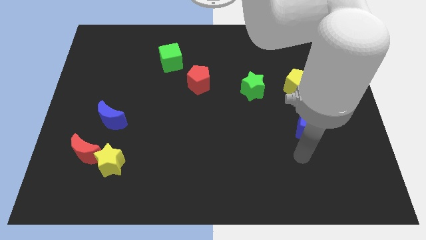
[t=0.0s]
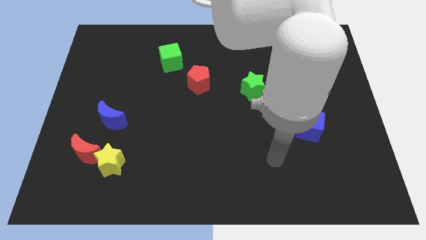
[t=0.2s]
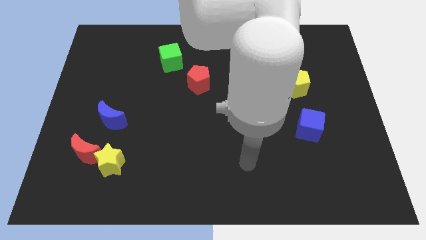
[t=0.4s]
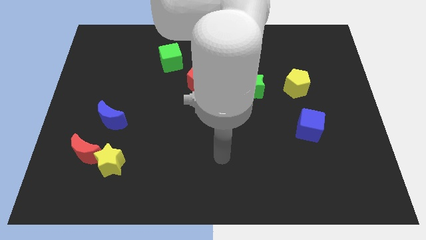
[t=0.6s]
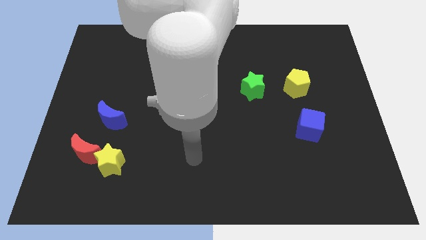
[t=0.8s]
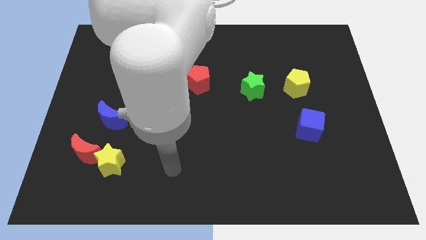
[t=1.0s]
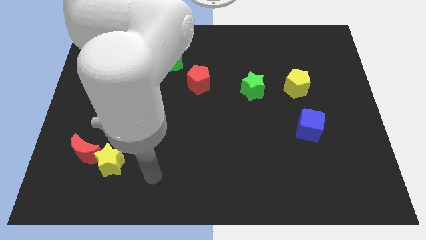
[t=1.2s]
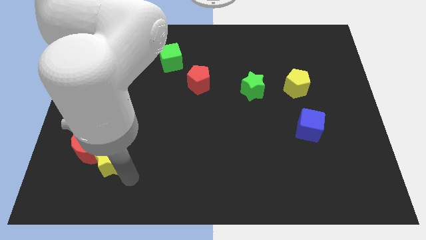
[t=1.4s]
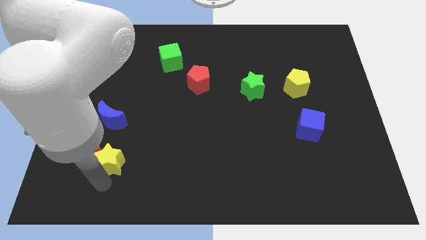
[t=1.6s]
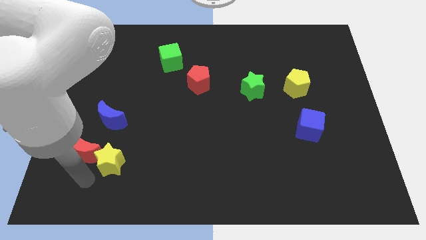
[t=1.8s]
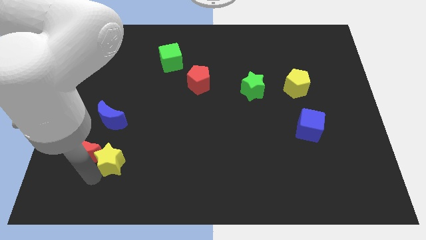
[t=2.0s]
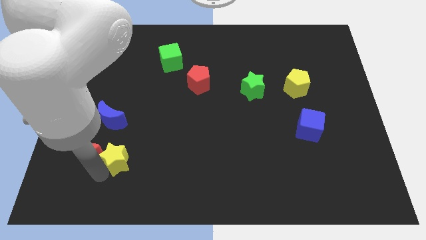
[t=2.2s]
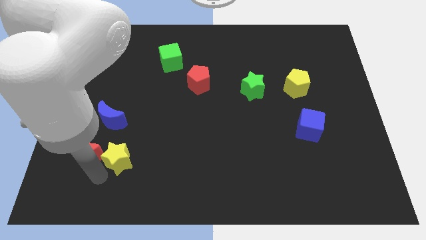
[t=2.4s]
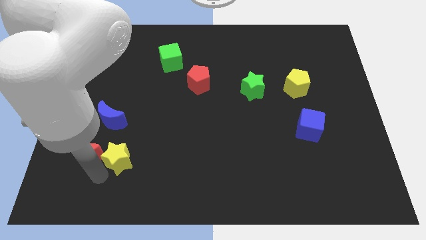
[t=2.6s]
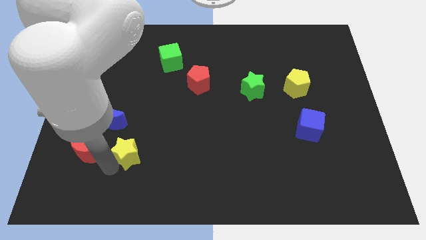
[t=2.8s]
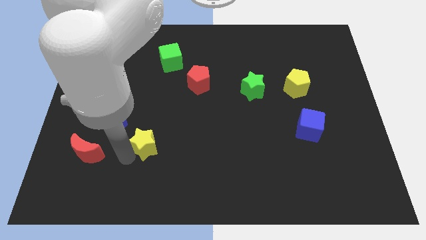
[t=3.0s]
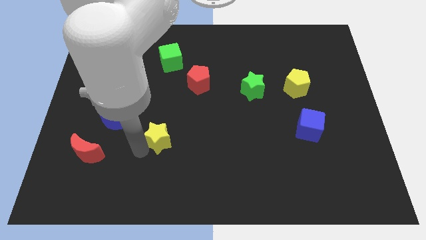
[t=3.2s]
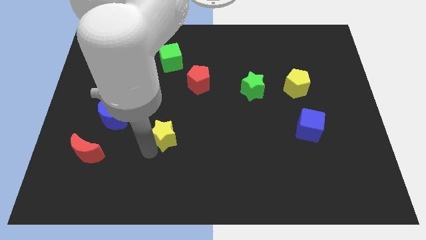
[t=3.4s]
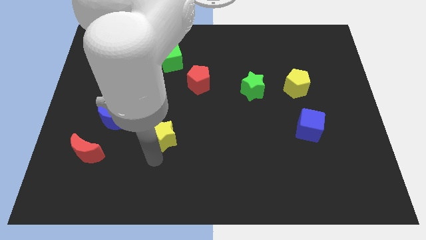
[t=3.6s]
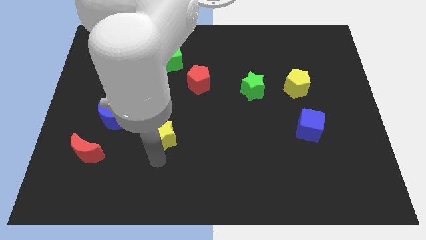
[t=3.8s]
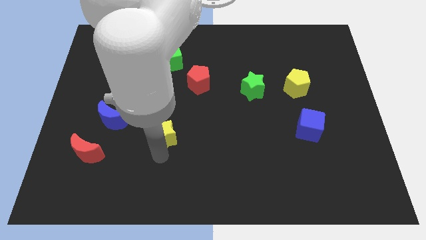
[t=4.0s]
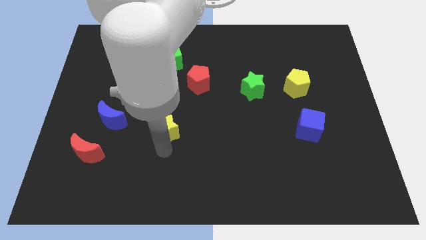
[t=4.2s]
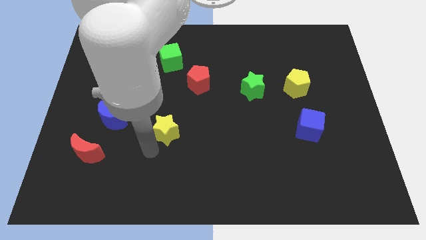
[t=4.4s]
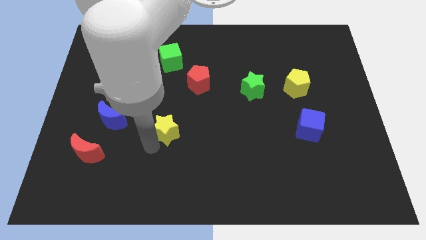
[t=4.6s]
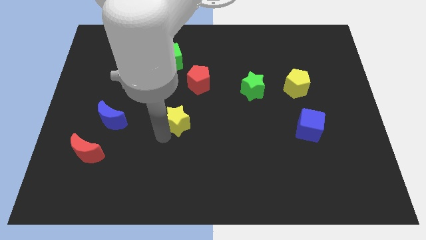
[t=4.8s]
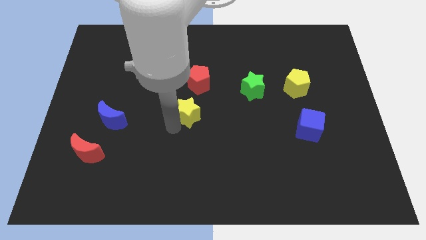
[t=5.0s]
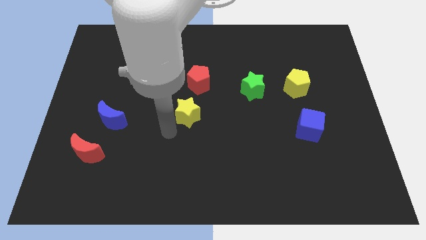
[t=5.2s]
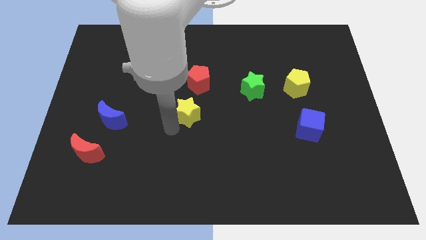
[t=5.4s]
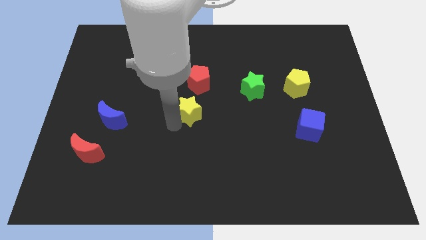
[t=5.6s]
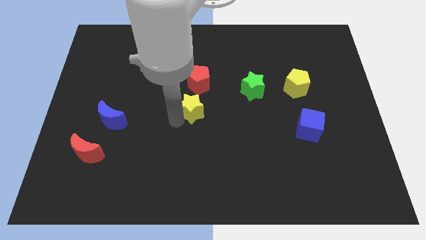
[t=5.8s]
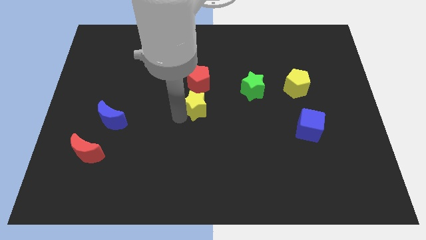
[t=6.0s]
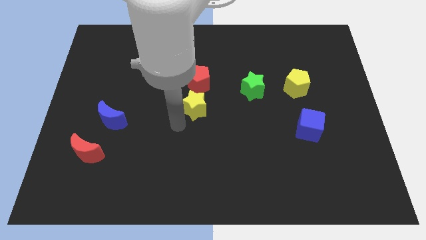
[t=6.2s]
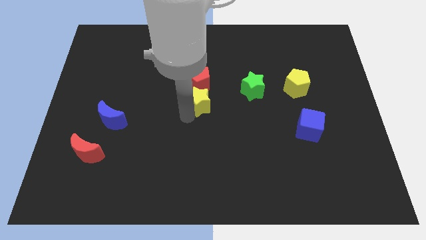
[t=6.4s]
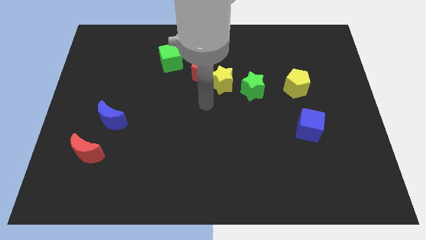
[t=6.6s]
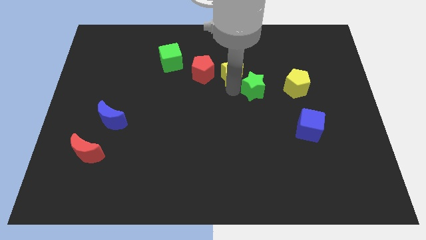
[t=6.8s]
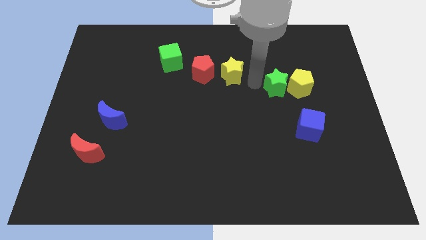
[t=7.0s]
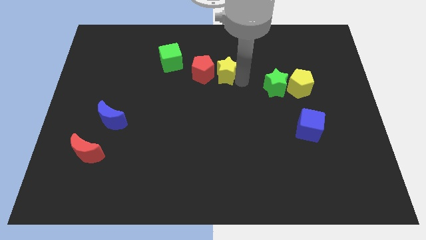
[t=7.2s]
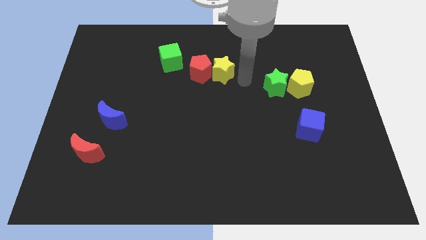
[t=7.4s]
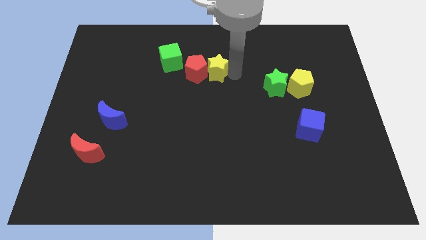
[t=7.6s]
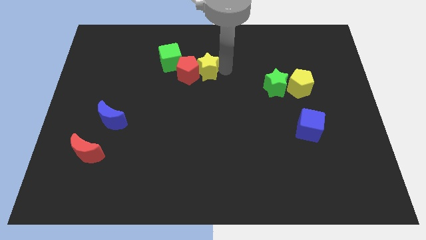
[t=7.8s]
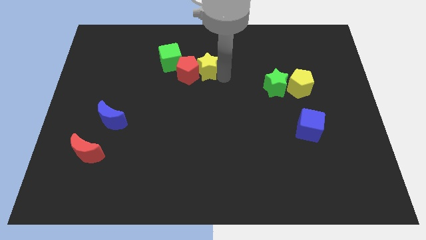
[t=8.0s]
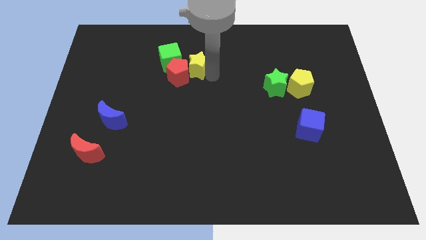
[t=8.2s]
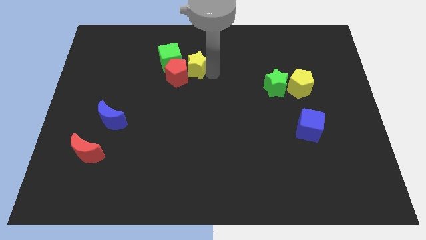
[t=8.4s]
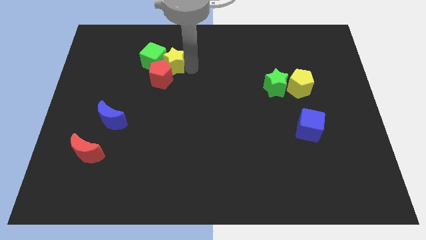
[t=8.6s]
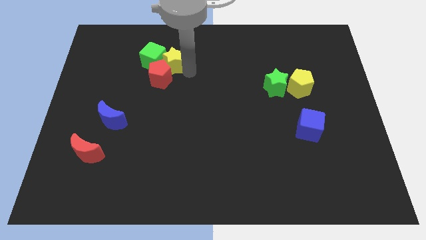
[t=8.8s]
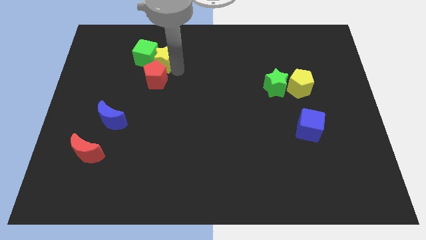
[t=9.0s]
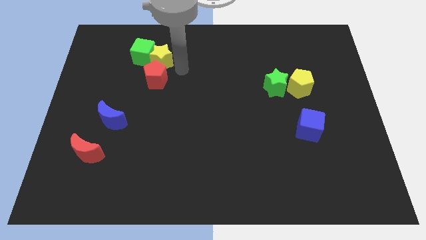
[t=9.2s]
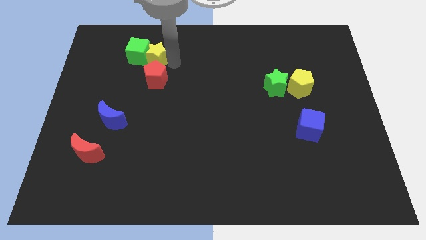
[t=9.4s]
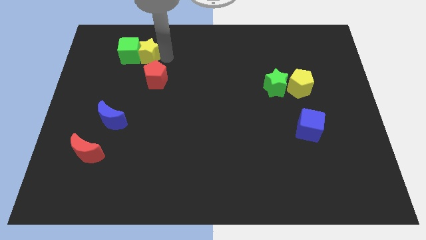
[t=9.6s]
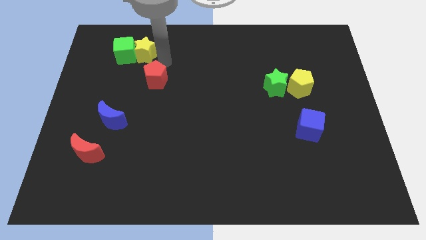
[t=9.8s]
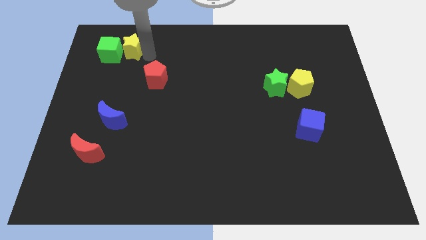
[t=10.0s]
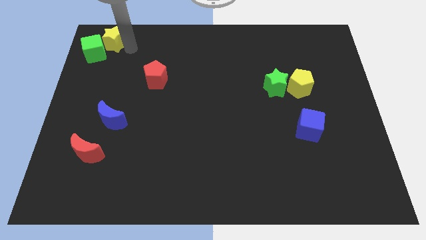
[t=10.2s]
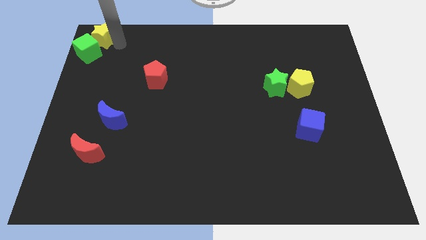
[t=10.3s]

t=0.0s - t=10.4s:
put the yellow star to the top left of the board

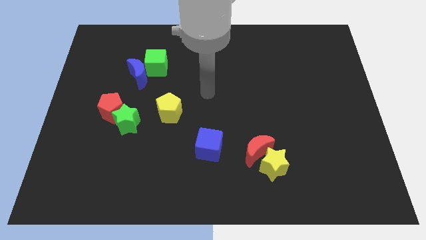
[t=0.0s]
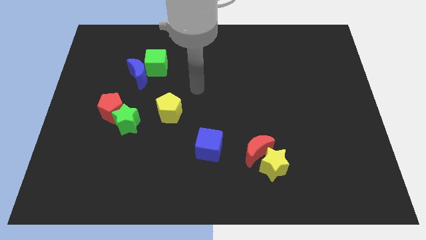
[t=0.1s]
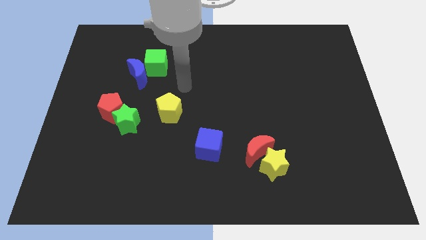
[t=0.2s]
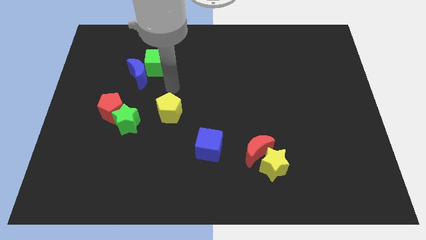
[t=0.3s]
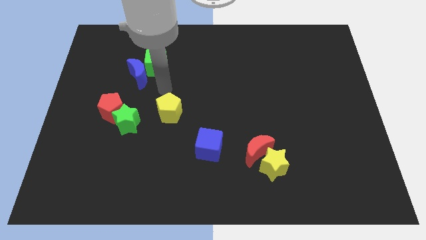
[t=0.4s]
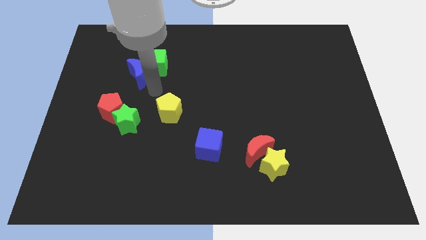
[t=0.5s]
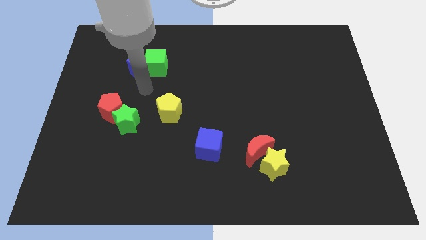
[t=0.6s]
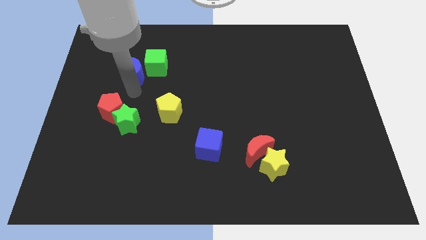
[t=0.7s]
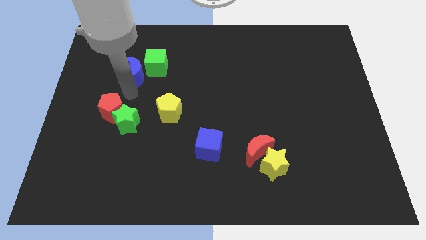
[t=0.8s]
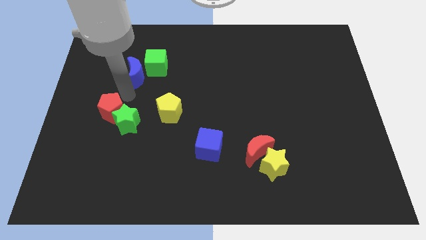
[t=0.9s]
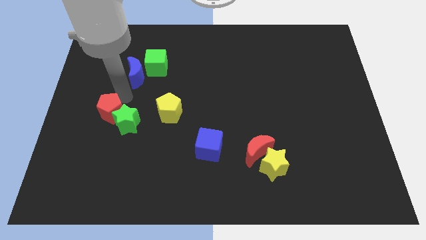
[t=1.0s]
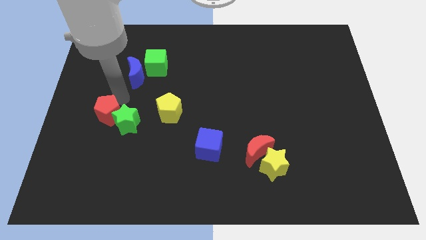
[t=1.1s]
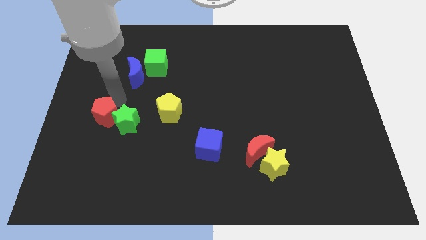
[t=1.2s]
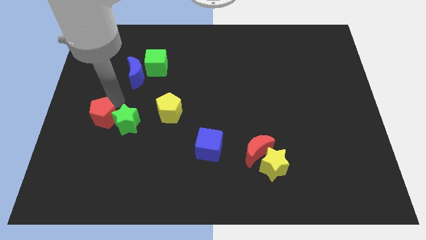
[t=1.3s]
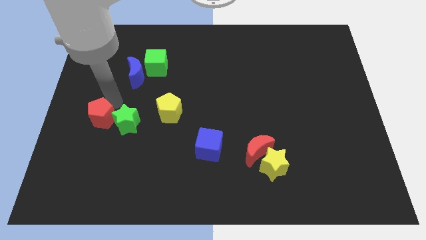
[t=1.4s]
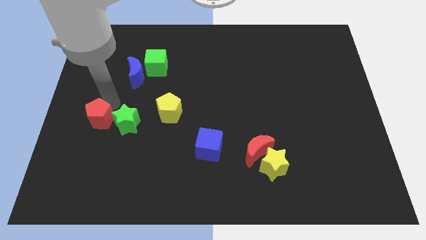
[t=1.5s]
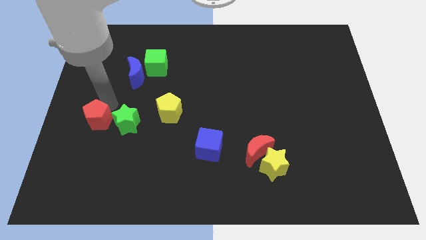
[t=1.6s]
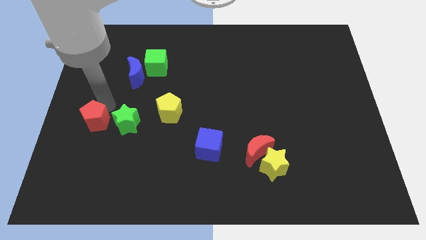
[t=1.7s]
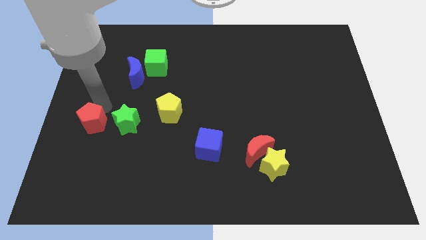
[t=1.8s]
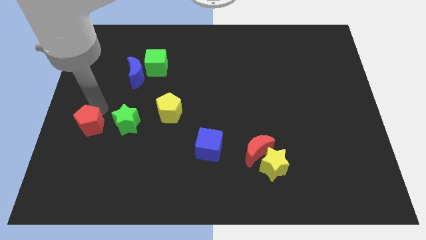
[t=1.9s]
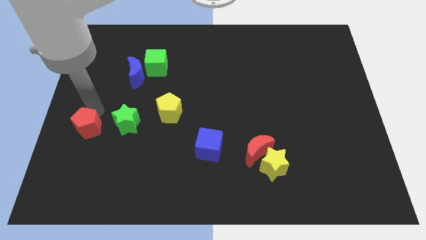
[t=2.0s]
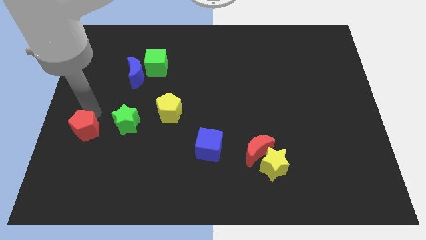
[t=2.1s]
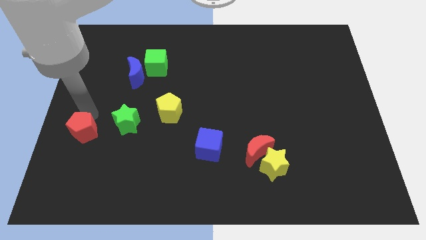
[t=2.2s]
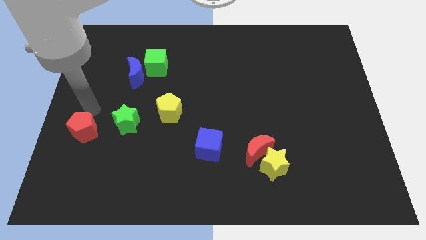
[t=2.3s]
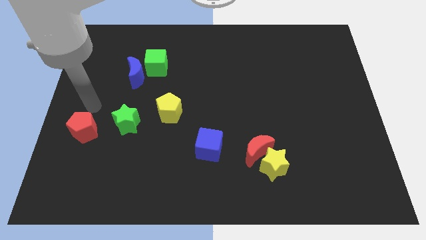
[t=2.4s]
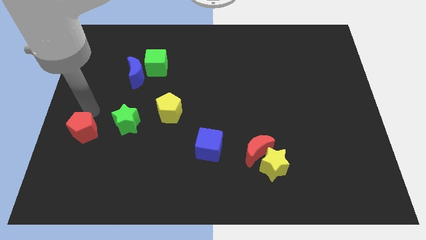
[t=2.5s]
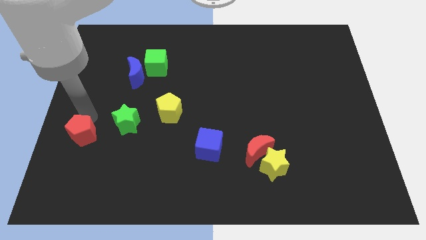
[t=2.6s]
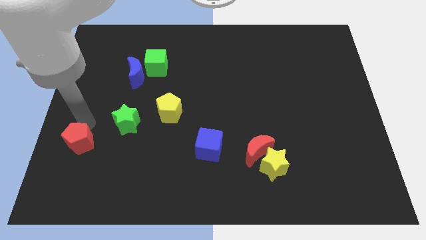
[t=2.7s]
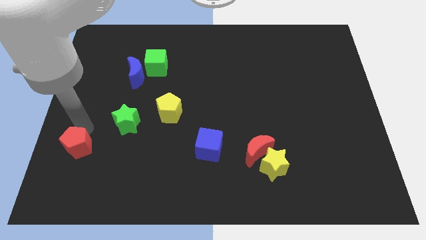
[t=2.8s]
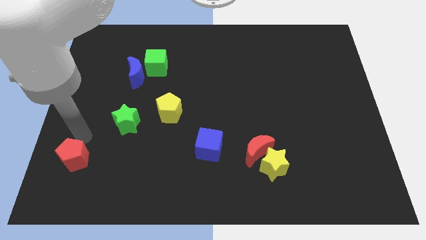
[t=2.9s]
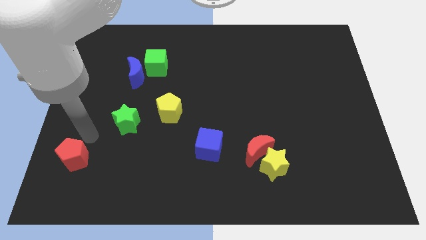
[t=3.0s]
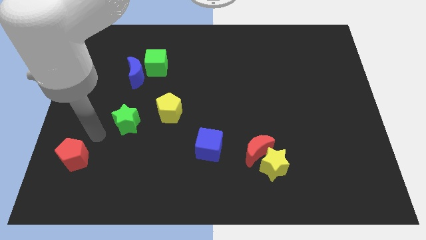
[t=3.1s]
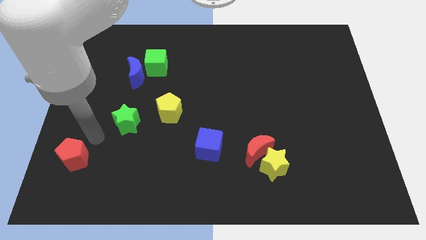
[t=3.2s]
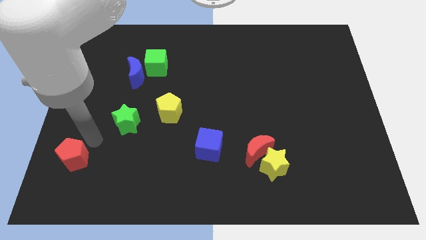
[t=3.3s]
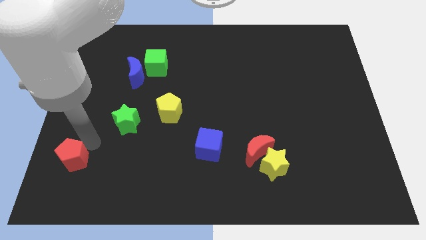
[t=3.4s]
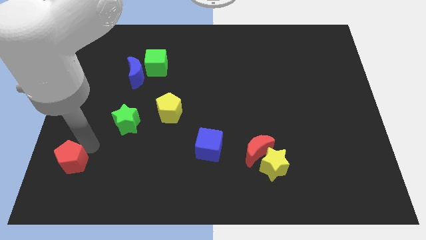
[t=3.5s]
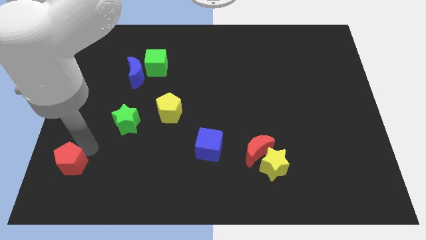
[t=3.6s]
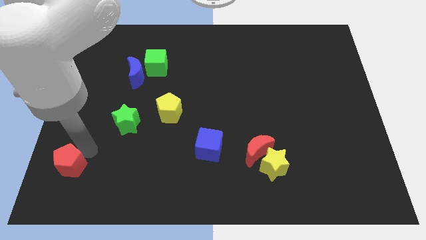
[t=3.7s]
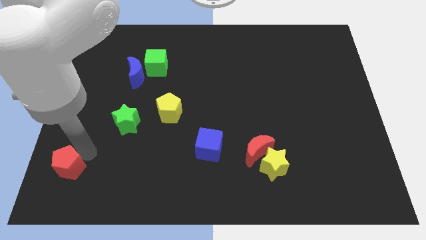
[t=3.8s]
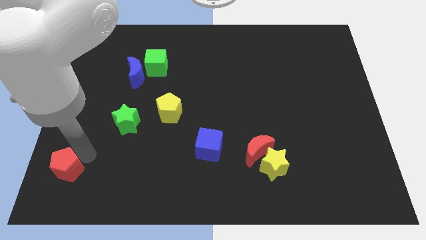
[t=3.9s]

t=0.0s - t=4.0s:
put the red pentagon to the lower left corner
